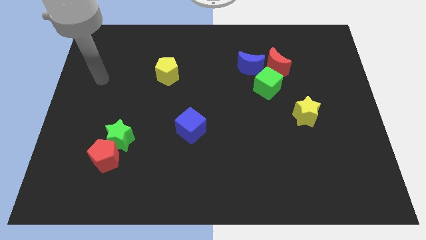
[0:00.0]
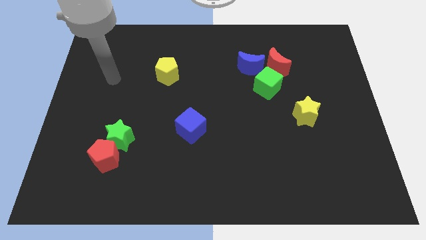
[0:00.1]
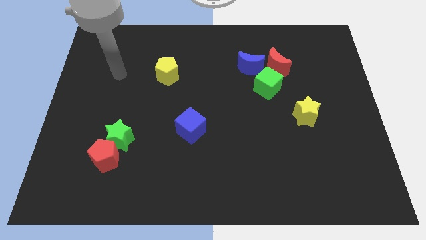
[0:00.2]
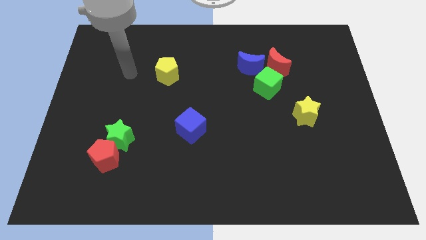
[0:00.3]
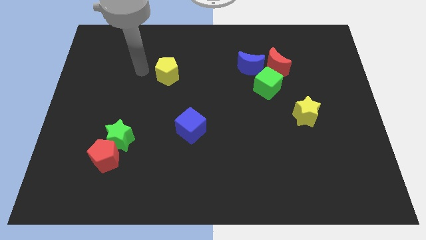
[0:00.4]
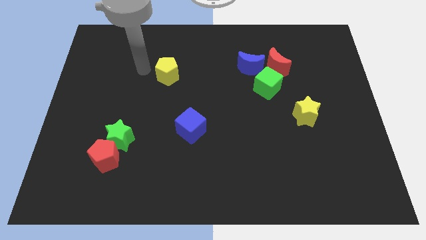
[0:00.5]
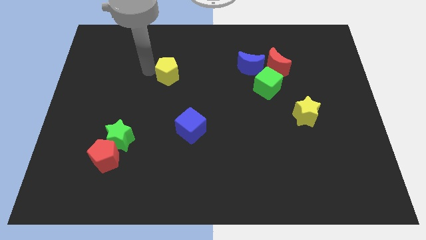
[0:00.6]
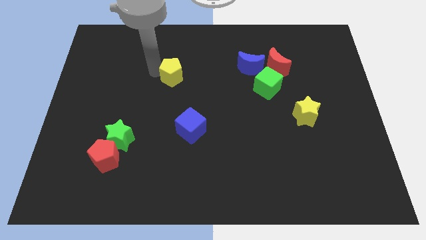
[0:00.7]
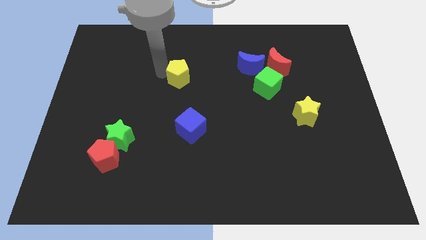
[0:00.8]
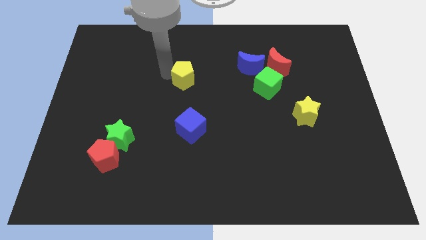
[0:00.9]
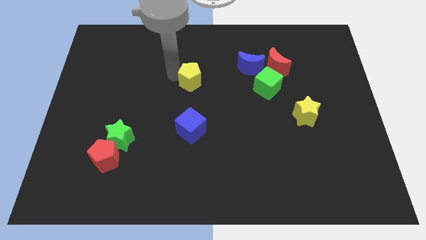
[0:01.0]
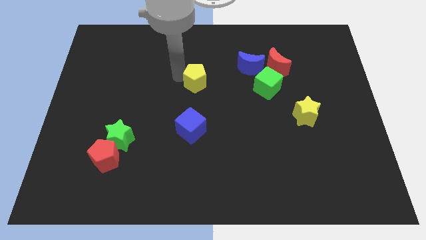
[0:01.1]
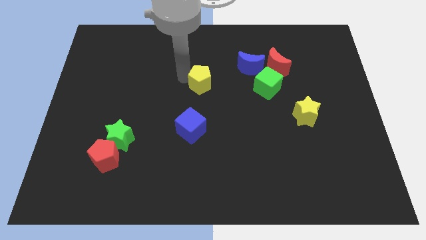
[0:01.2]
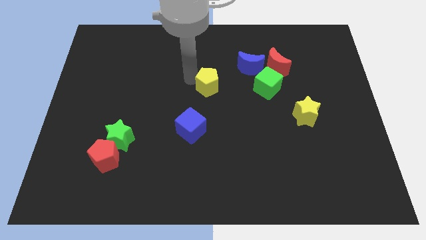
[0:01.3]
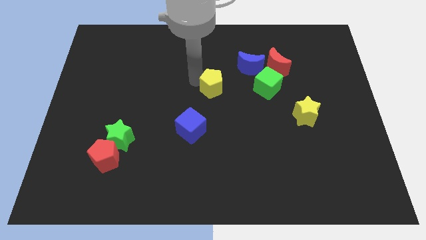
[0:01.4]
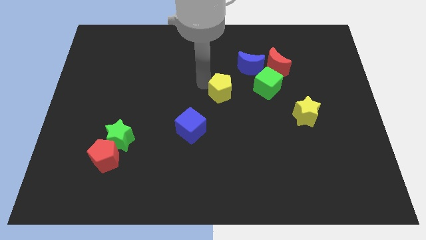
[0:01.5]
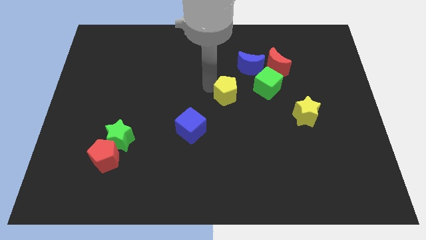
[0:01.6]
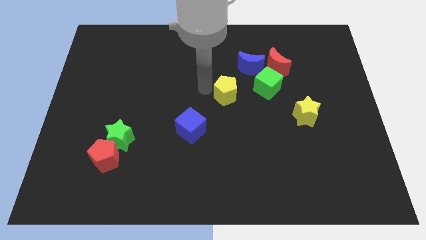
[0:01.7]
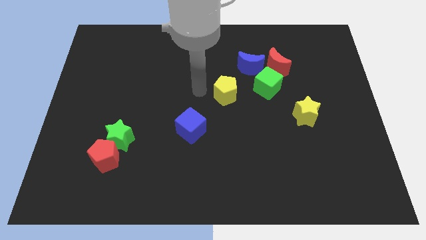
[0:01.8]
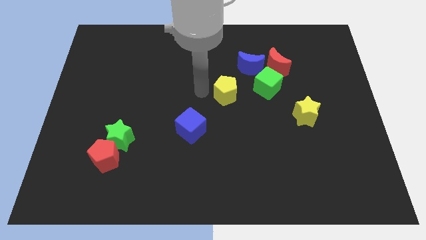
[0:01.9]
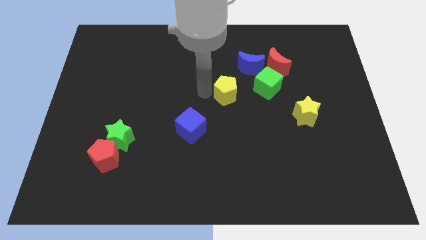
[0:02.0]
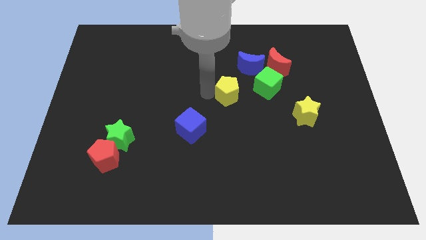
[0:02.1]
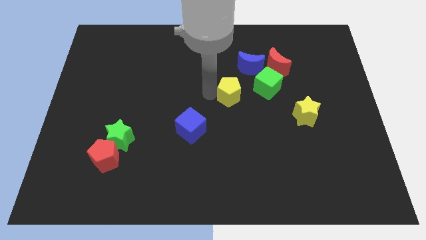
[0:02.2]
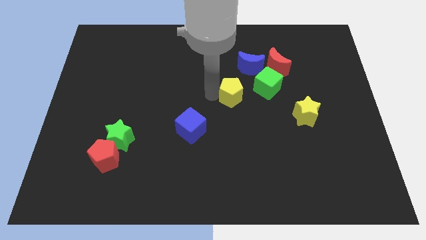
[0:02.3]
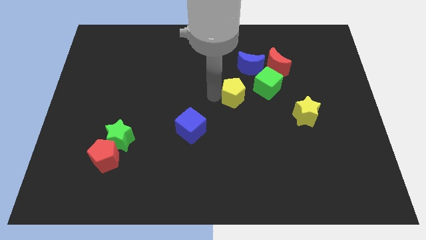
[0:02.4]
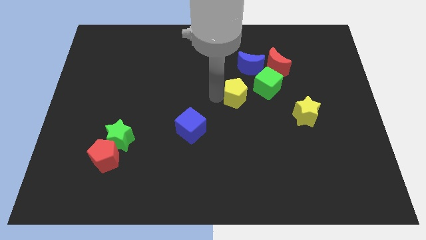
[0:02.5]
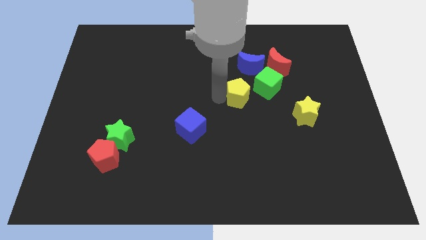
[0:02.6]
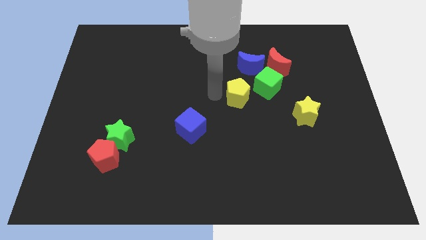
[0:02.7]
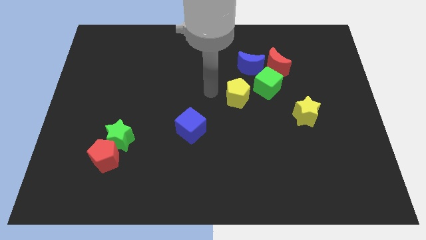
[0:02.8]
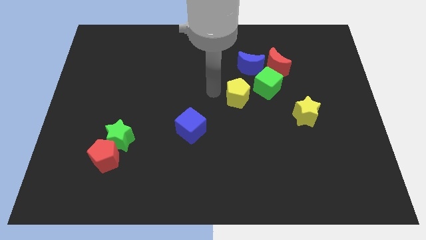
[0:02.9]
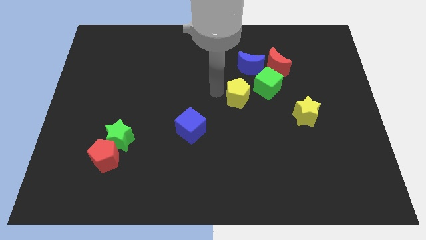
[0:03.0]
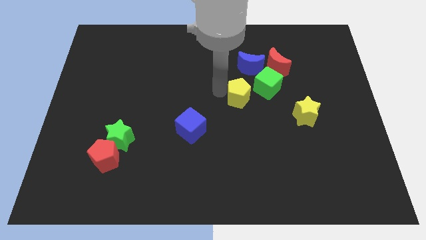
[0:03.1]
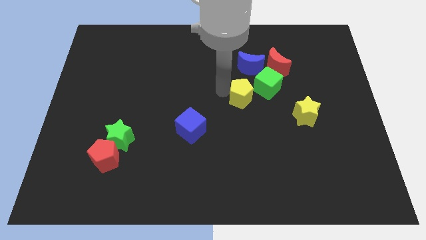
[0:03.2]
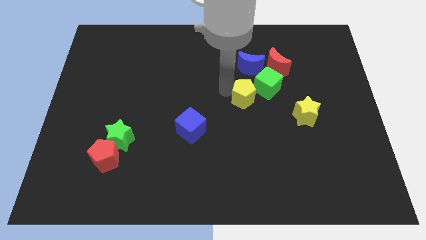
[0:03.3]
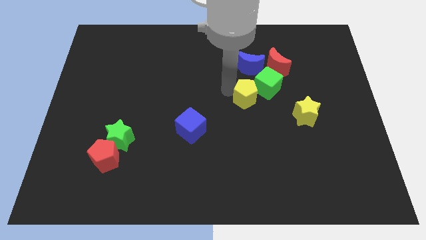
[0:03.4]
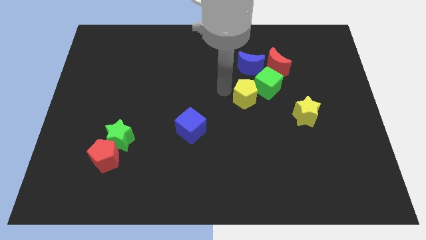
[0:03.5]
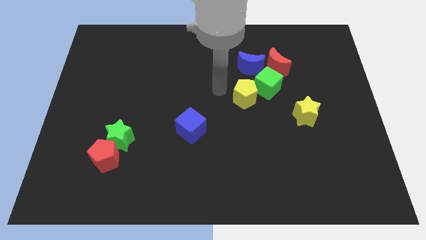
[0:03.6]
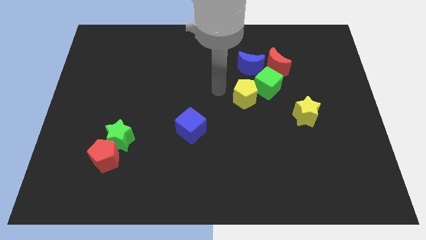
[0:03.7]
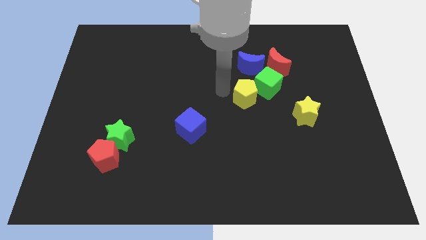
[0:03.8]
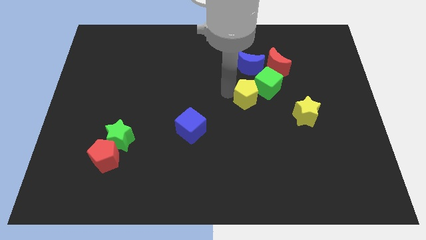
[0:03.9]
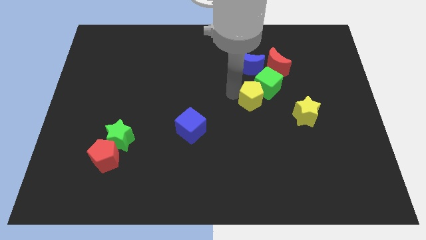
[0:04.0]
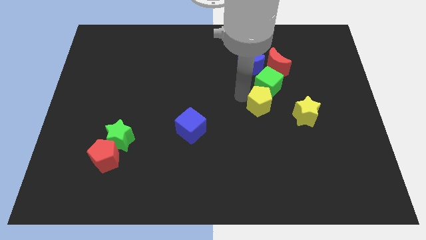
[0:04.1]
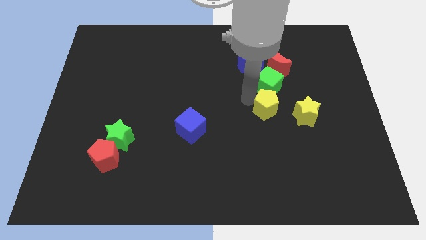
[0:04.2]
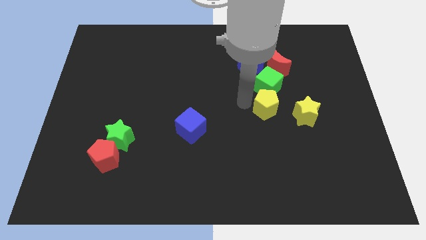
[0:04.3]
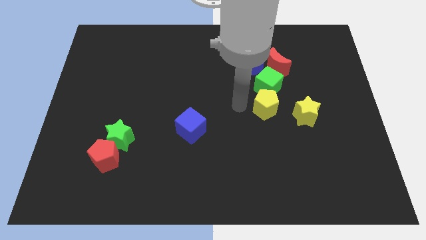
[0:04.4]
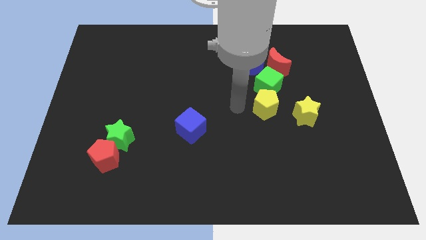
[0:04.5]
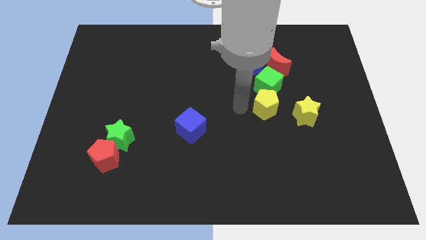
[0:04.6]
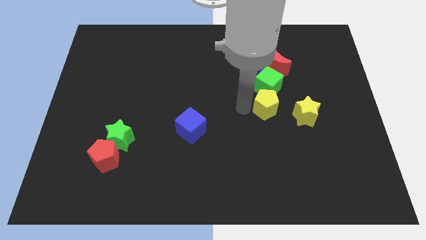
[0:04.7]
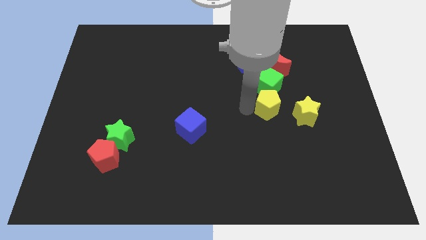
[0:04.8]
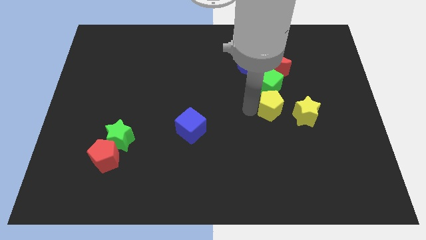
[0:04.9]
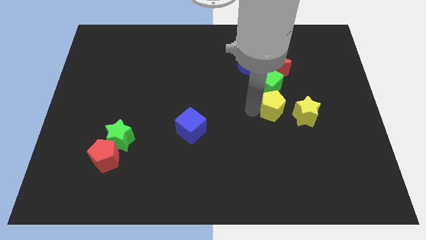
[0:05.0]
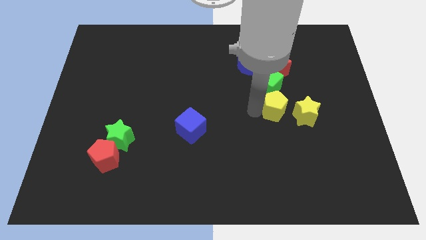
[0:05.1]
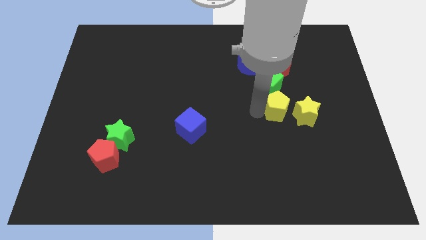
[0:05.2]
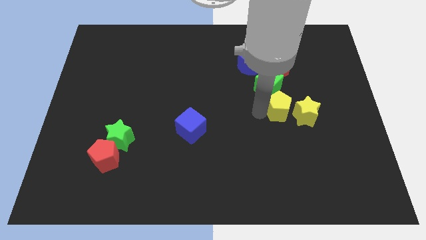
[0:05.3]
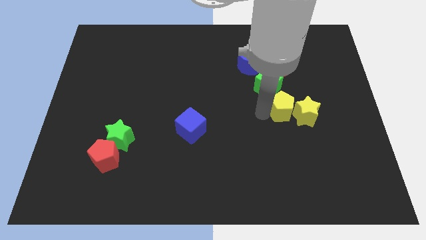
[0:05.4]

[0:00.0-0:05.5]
put the yellow pentagon next to the yellow star

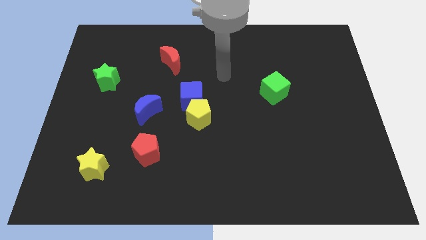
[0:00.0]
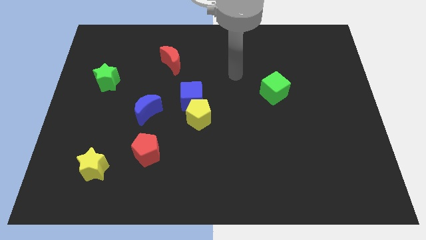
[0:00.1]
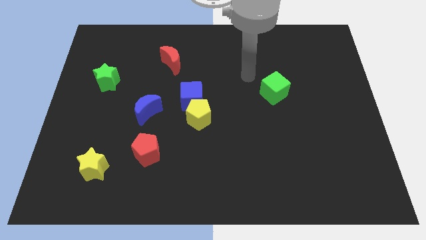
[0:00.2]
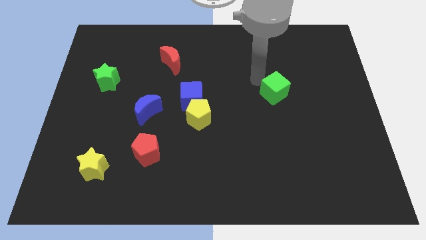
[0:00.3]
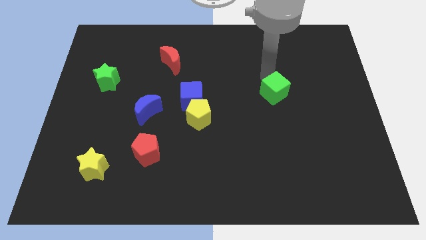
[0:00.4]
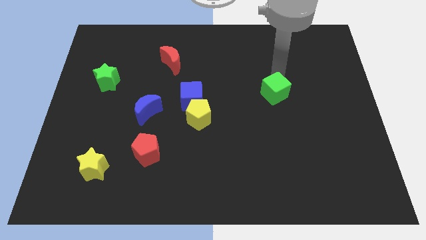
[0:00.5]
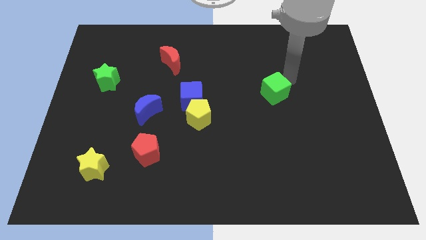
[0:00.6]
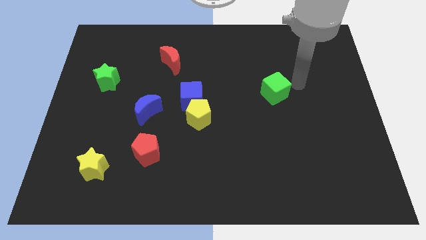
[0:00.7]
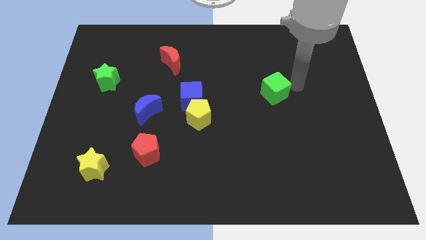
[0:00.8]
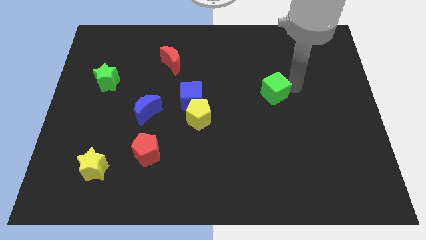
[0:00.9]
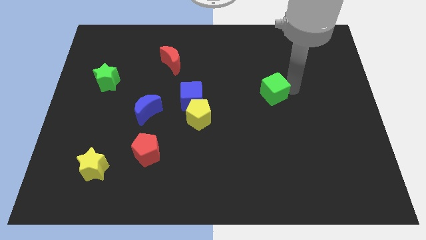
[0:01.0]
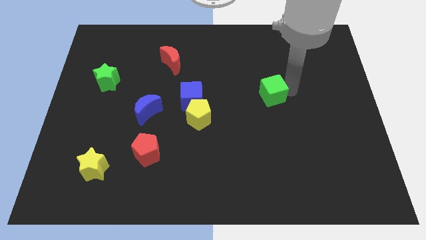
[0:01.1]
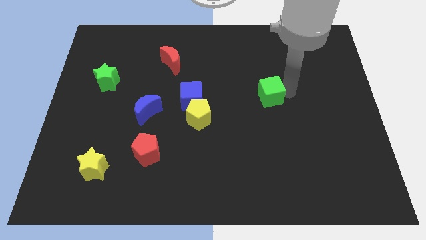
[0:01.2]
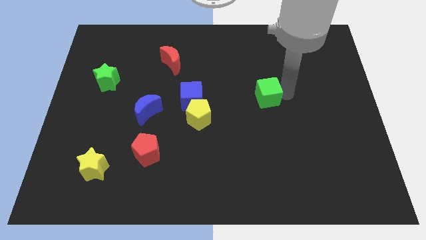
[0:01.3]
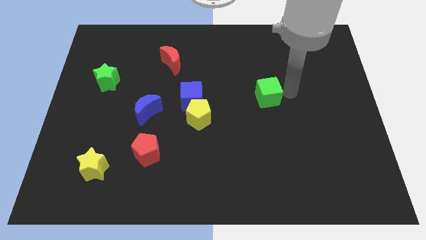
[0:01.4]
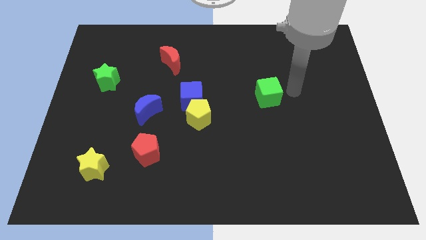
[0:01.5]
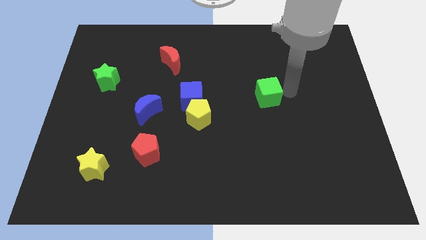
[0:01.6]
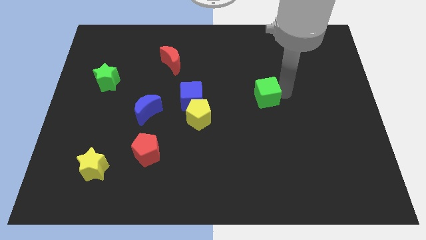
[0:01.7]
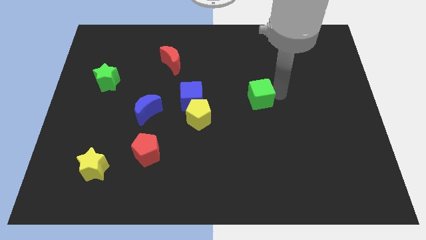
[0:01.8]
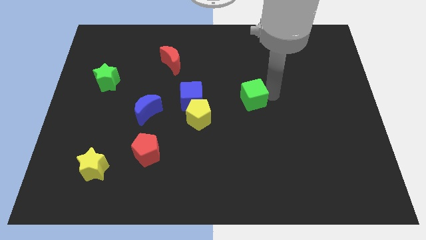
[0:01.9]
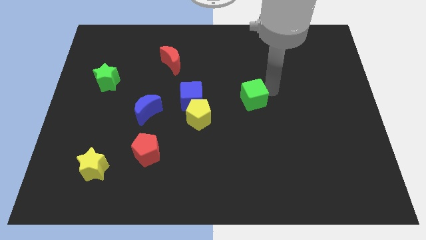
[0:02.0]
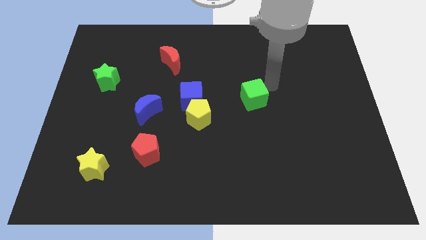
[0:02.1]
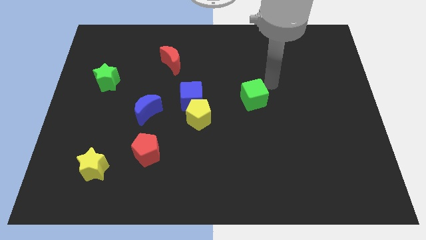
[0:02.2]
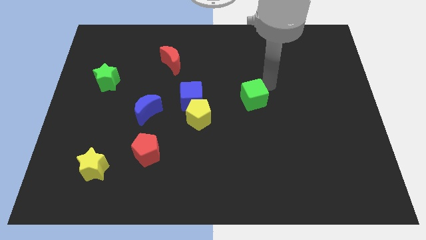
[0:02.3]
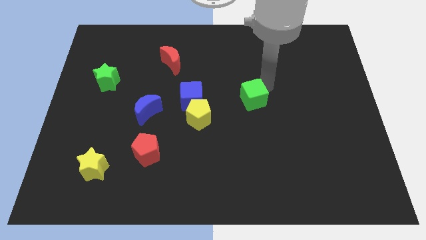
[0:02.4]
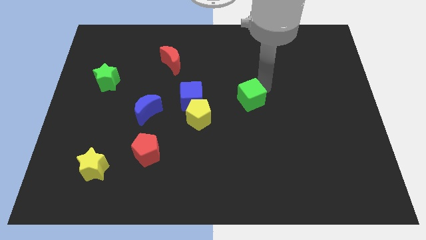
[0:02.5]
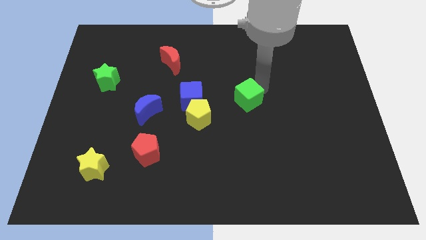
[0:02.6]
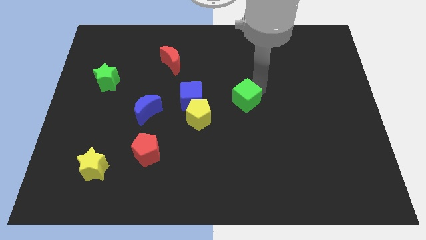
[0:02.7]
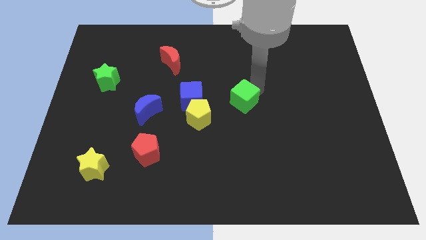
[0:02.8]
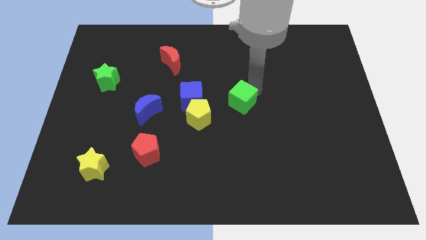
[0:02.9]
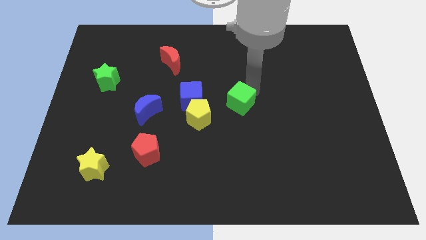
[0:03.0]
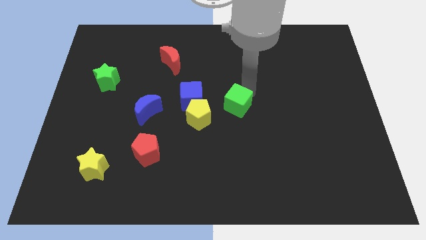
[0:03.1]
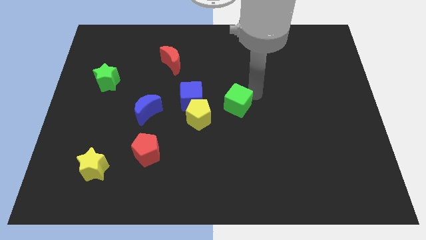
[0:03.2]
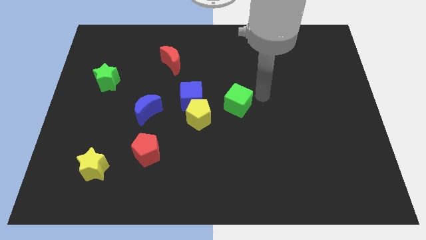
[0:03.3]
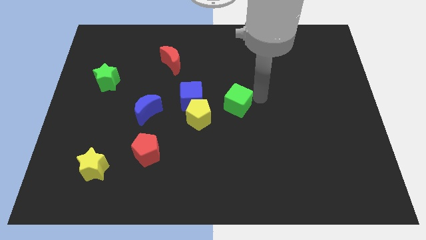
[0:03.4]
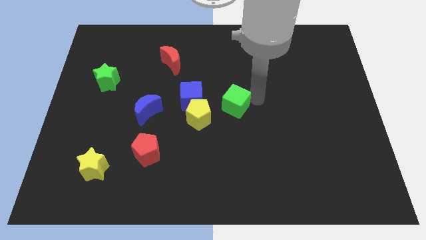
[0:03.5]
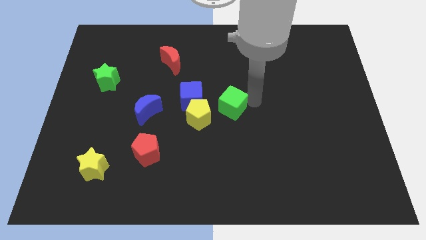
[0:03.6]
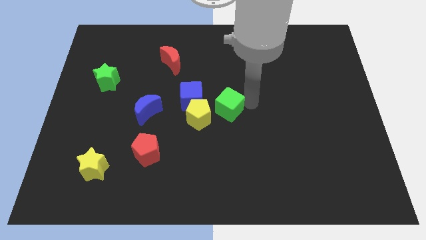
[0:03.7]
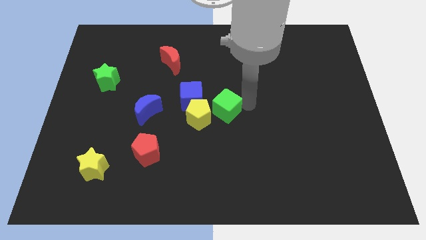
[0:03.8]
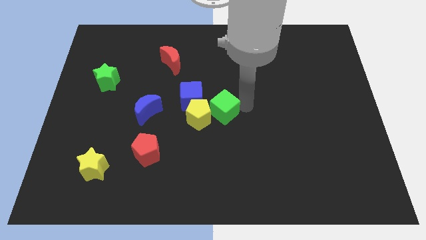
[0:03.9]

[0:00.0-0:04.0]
slide the green cube to the yellow pentagon
